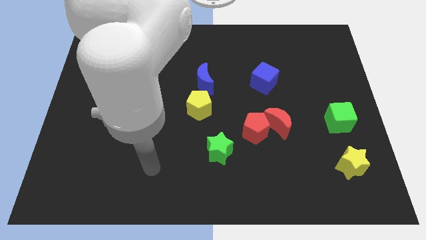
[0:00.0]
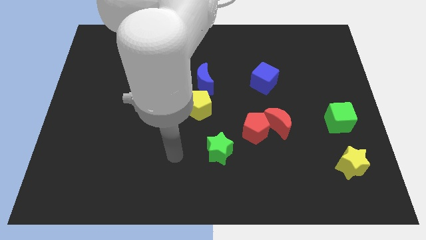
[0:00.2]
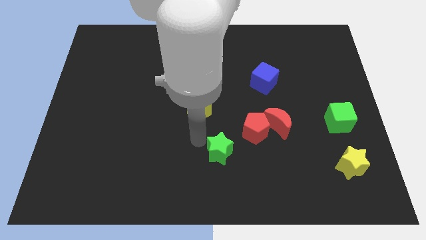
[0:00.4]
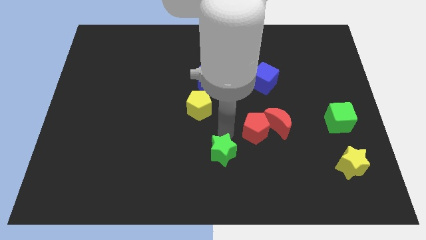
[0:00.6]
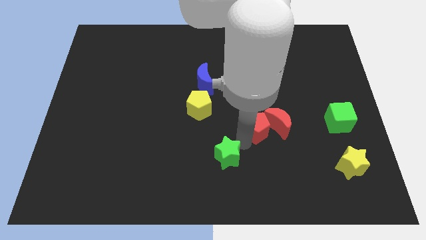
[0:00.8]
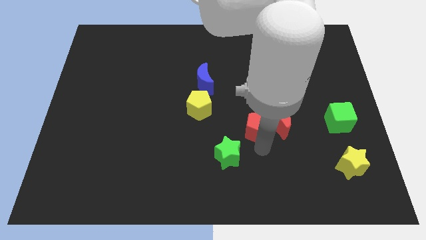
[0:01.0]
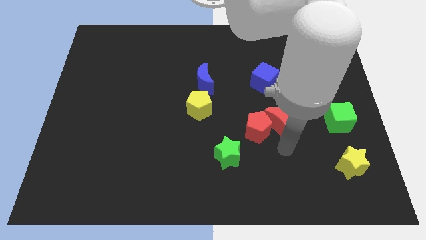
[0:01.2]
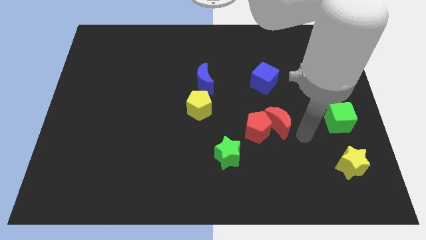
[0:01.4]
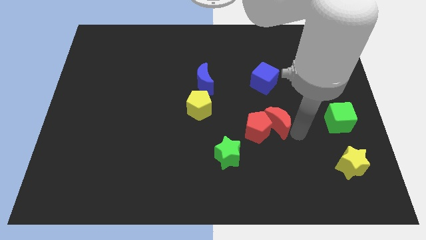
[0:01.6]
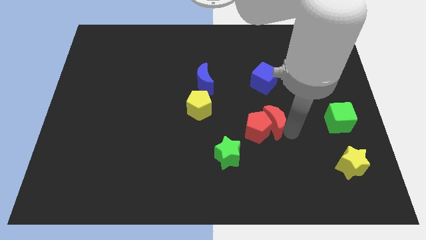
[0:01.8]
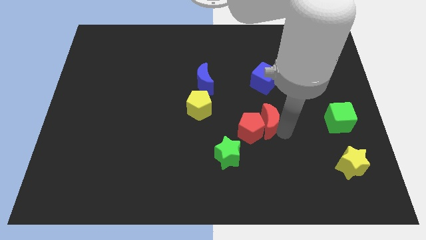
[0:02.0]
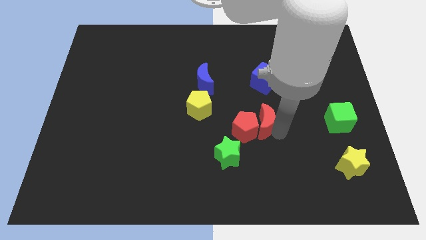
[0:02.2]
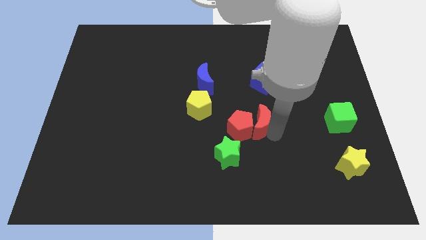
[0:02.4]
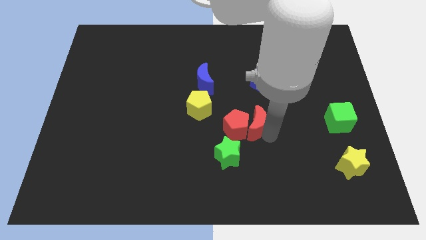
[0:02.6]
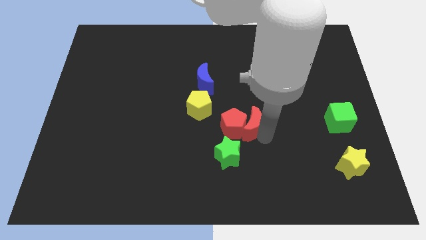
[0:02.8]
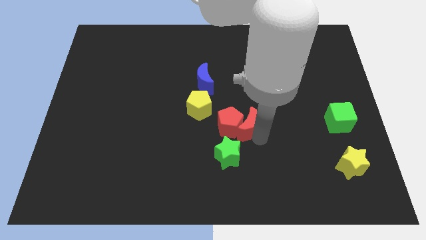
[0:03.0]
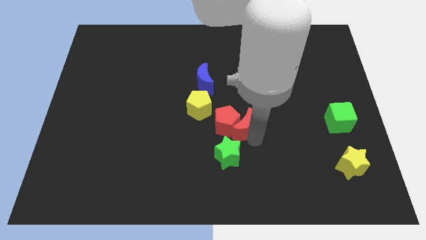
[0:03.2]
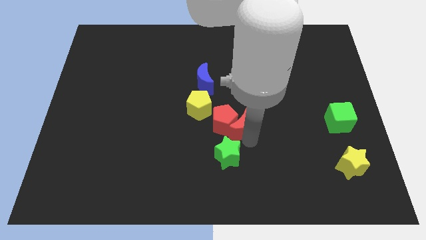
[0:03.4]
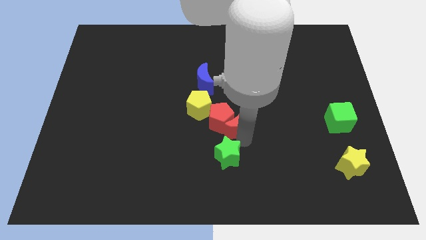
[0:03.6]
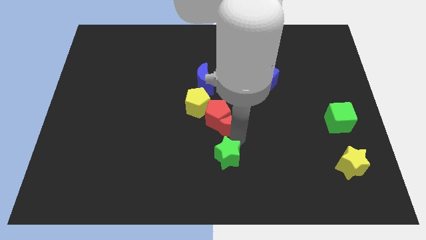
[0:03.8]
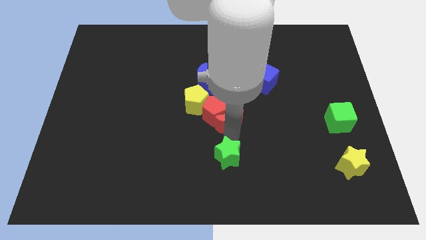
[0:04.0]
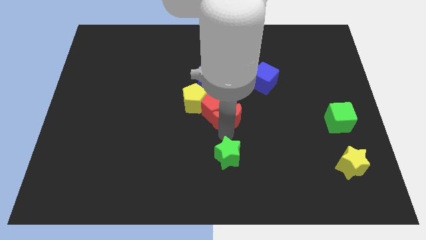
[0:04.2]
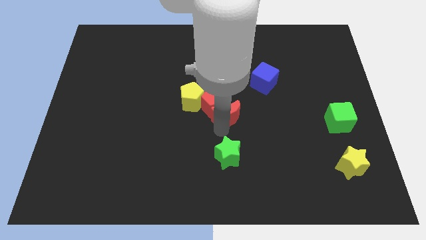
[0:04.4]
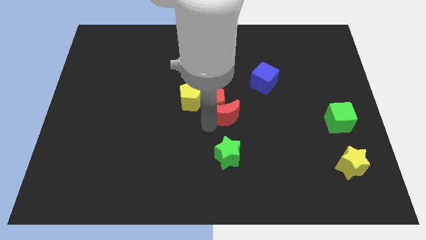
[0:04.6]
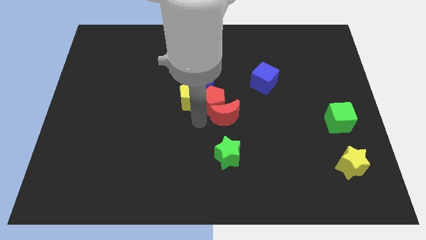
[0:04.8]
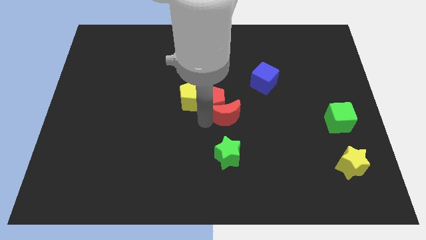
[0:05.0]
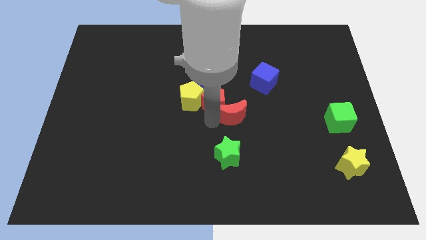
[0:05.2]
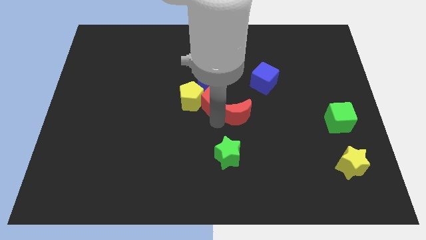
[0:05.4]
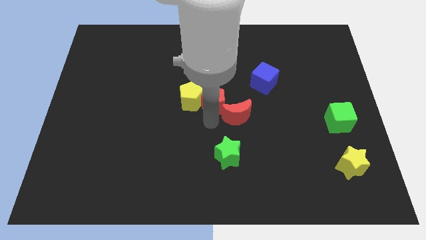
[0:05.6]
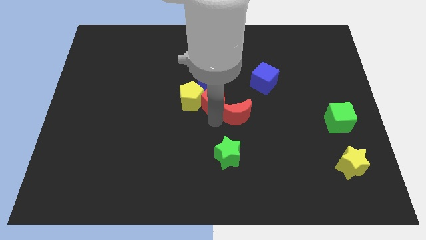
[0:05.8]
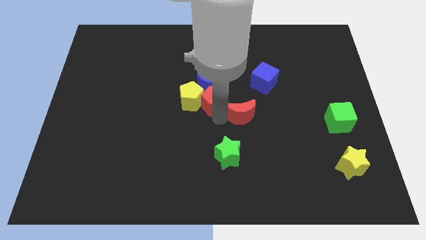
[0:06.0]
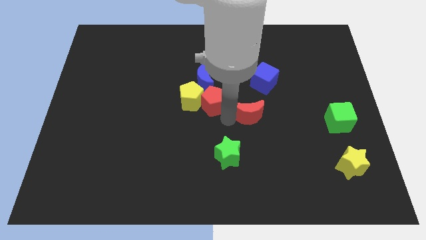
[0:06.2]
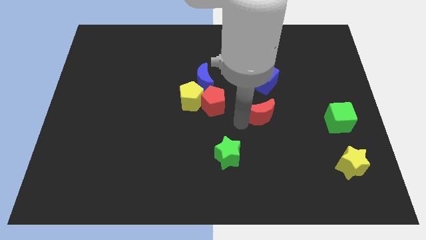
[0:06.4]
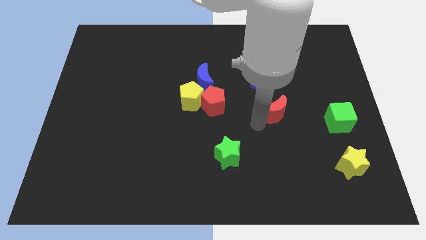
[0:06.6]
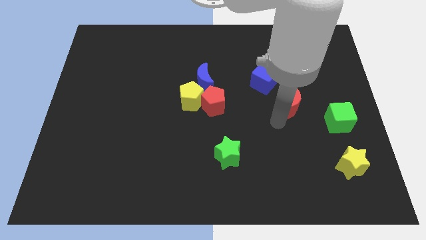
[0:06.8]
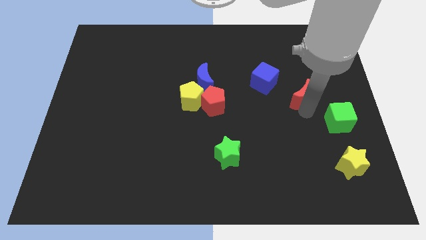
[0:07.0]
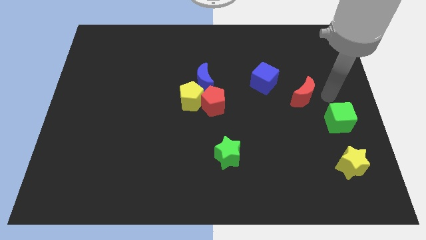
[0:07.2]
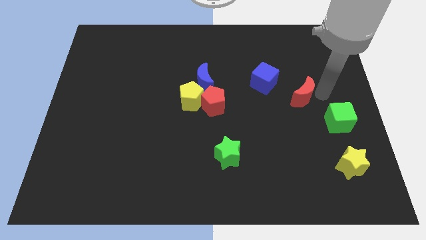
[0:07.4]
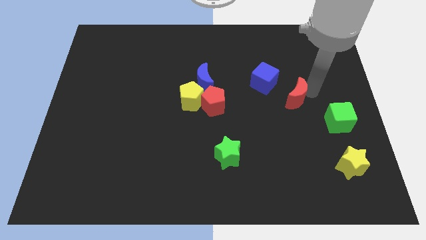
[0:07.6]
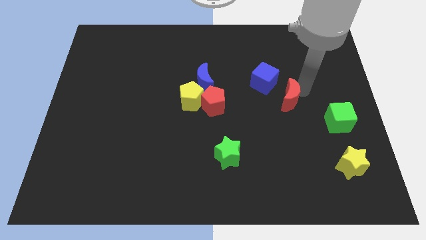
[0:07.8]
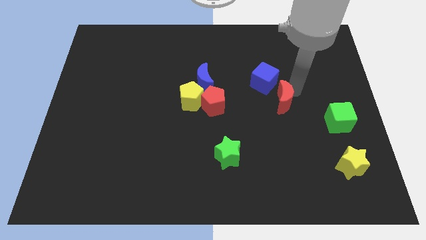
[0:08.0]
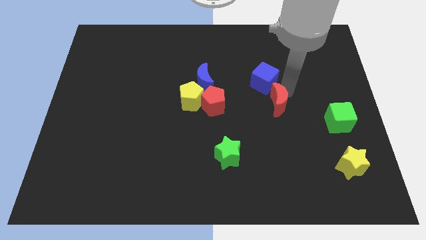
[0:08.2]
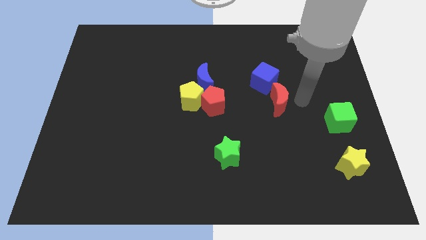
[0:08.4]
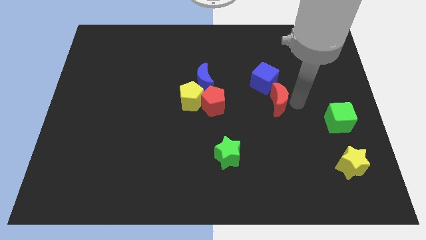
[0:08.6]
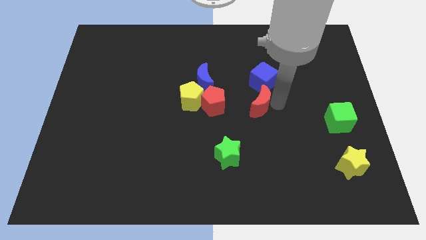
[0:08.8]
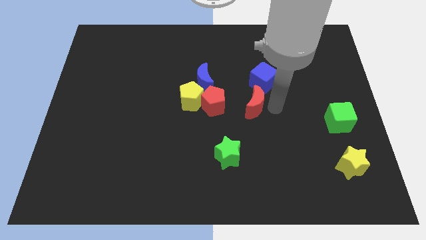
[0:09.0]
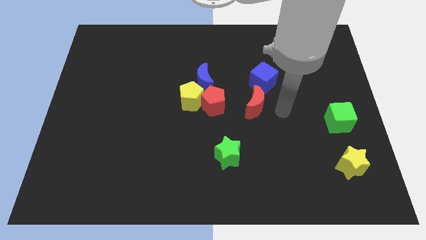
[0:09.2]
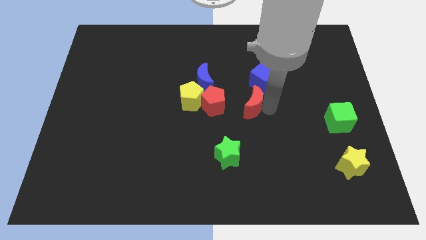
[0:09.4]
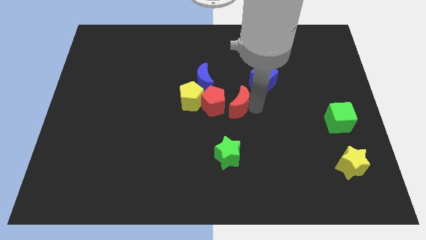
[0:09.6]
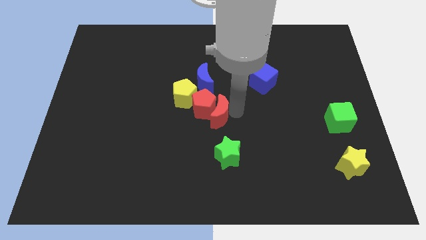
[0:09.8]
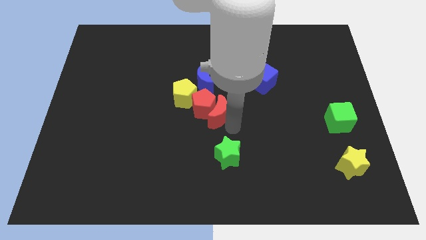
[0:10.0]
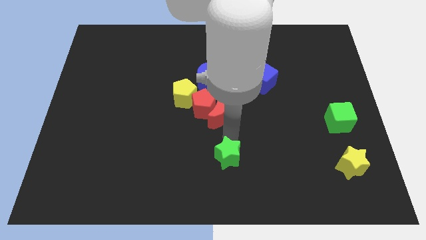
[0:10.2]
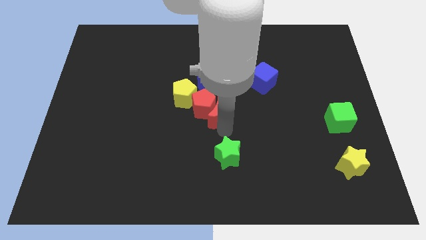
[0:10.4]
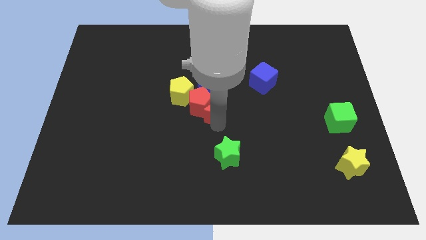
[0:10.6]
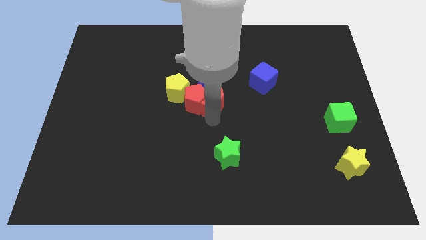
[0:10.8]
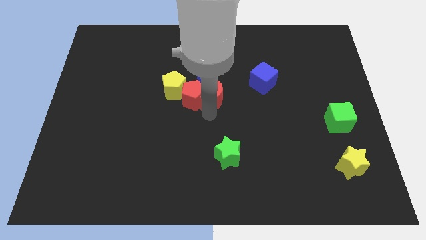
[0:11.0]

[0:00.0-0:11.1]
put the red moon to the blue moon

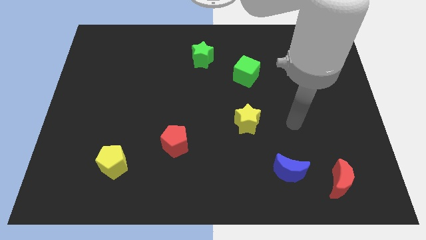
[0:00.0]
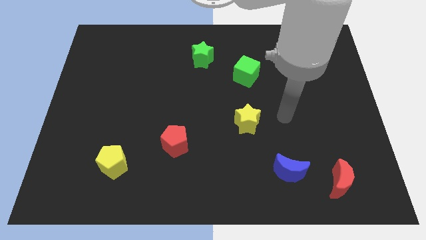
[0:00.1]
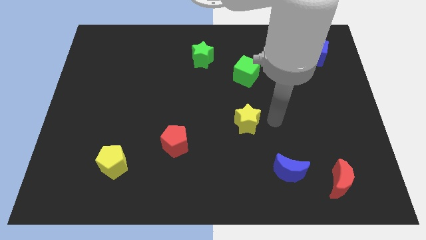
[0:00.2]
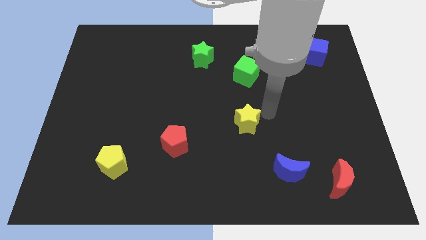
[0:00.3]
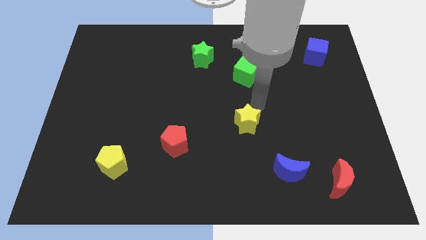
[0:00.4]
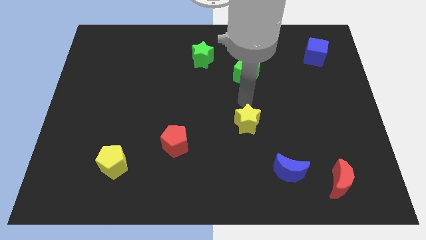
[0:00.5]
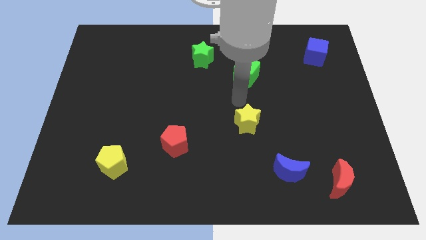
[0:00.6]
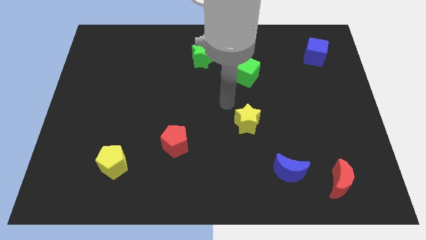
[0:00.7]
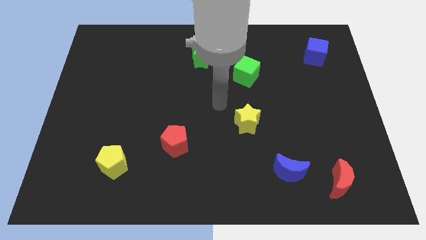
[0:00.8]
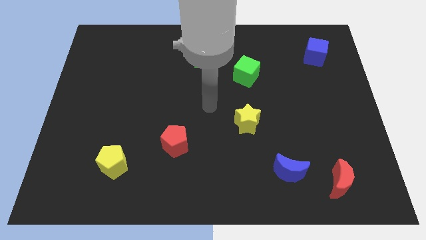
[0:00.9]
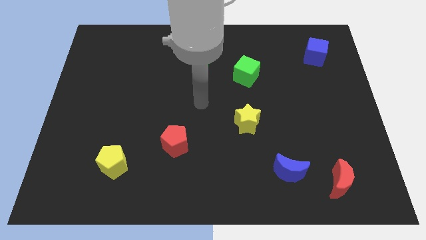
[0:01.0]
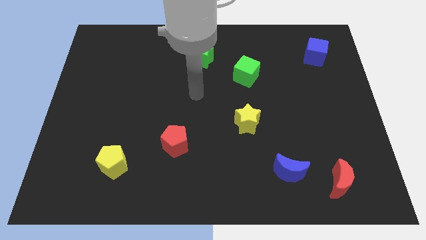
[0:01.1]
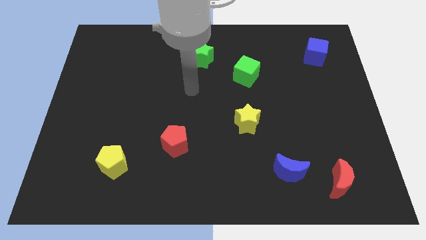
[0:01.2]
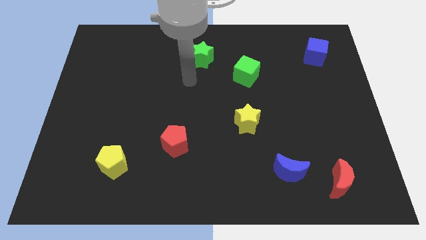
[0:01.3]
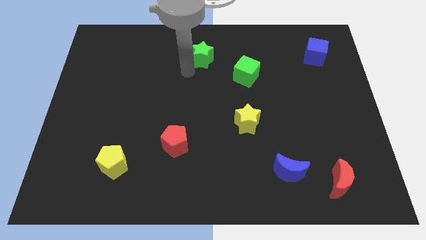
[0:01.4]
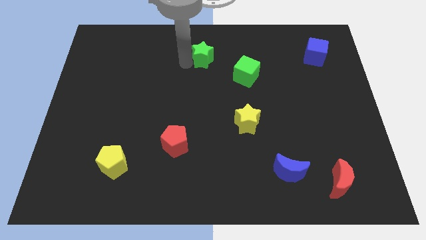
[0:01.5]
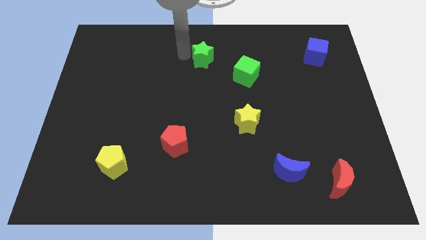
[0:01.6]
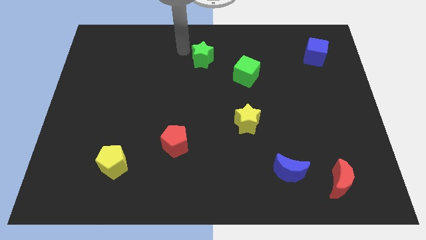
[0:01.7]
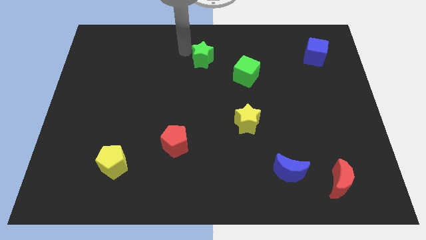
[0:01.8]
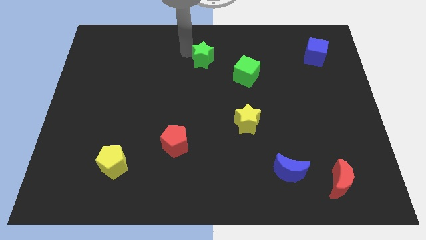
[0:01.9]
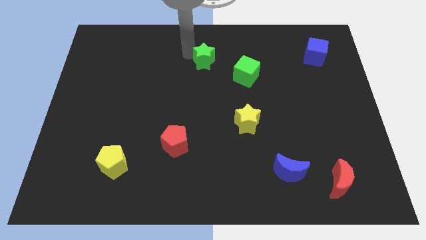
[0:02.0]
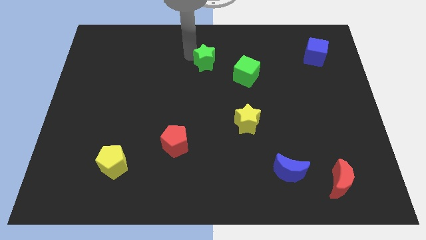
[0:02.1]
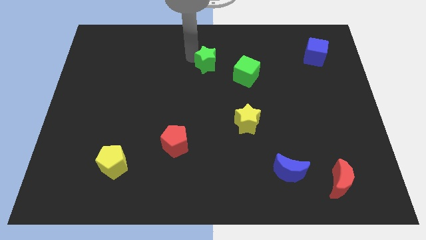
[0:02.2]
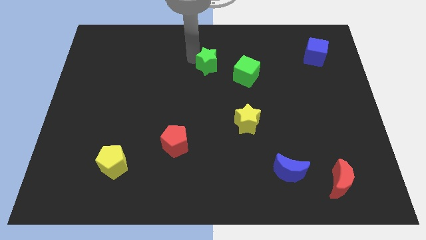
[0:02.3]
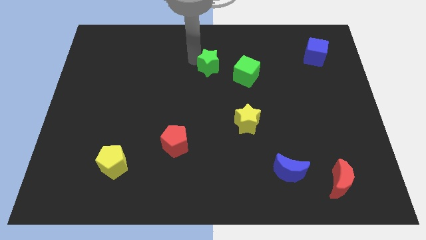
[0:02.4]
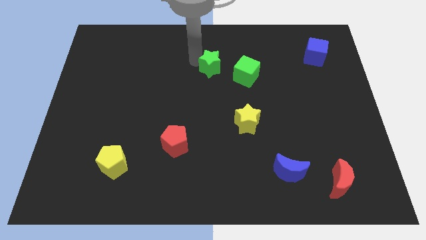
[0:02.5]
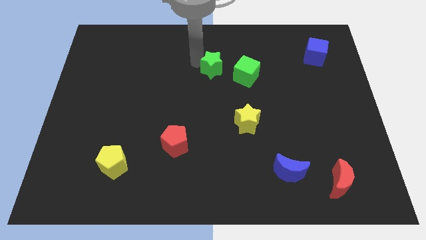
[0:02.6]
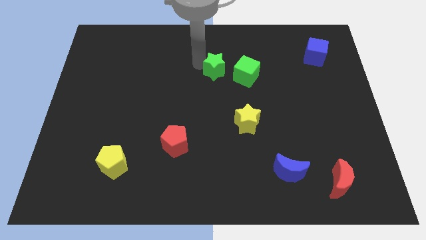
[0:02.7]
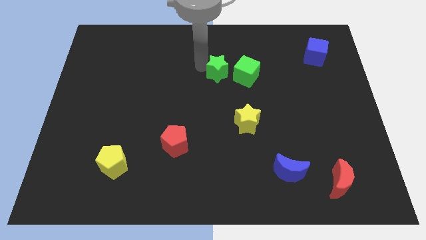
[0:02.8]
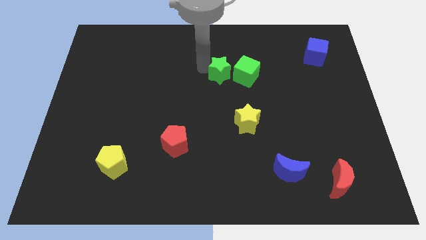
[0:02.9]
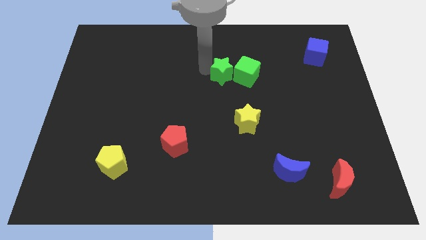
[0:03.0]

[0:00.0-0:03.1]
move the green star close to the green cube
